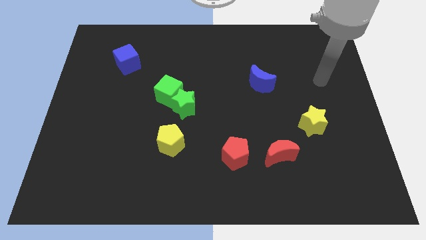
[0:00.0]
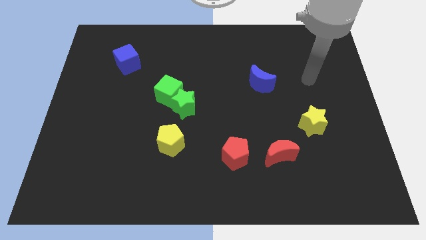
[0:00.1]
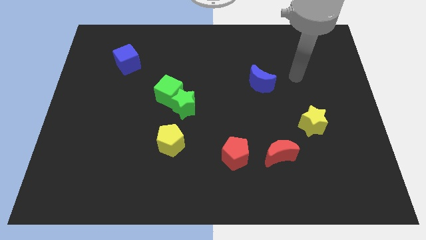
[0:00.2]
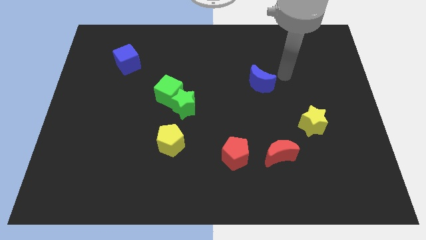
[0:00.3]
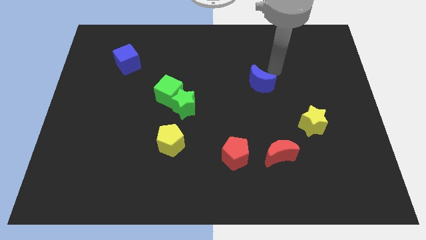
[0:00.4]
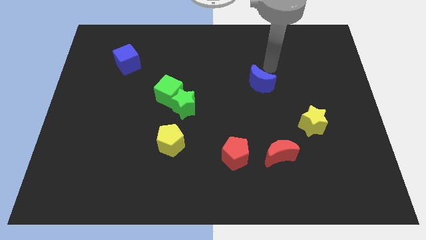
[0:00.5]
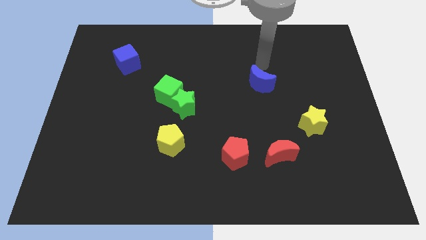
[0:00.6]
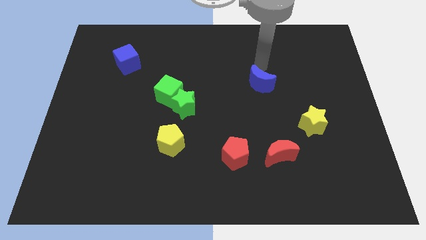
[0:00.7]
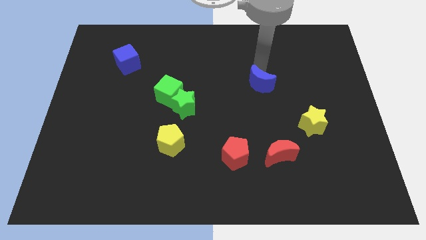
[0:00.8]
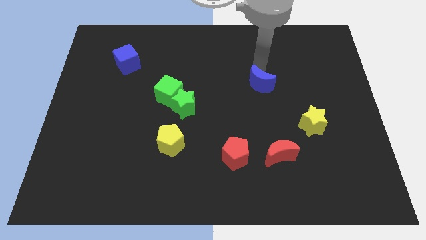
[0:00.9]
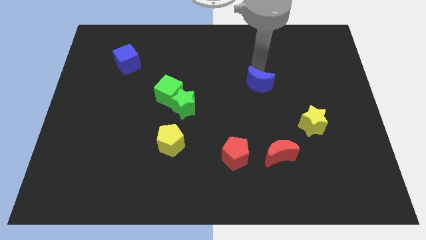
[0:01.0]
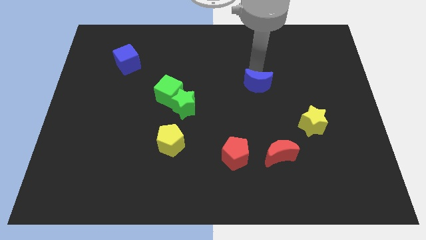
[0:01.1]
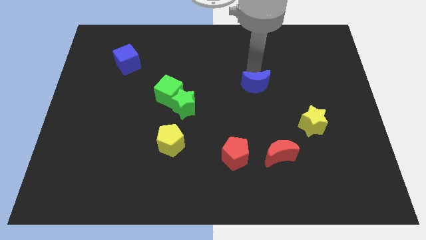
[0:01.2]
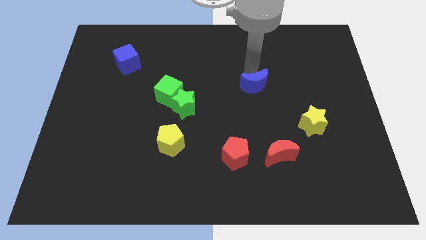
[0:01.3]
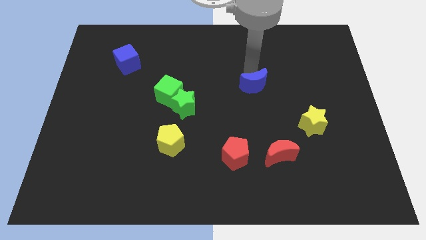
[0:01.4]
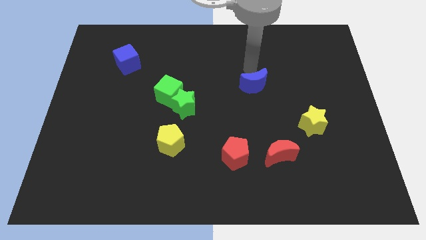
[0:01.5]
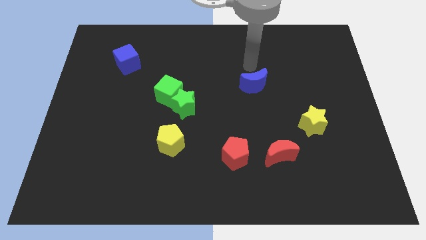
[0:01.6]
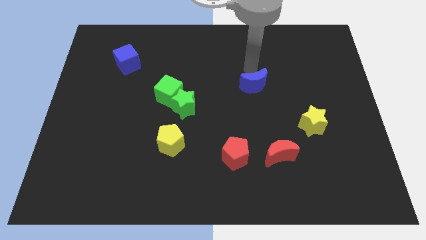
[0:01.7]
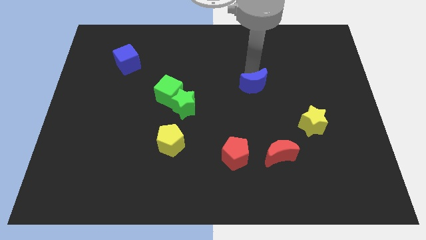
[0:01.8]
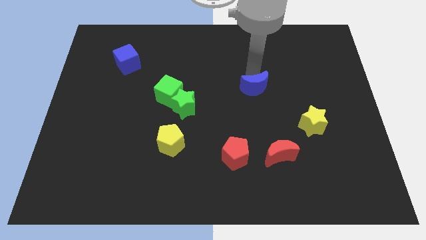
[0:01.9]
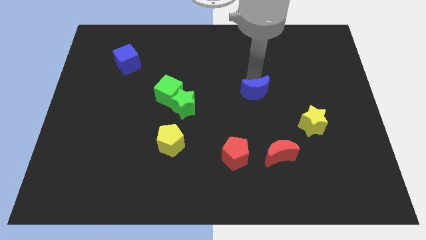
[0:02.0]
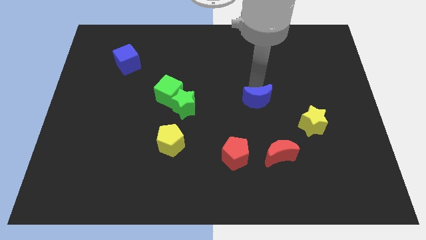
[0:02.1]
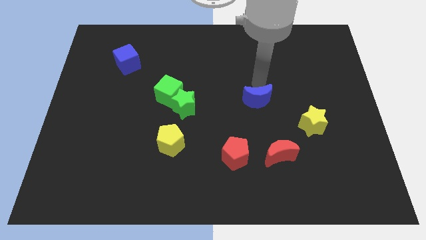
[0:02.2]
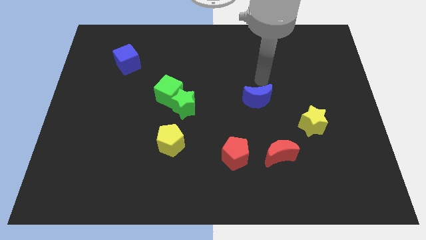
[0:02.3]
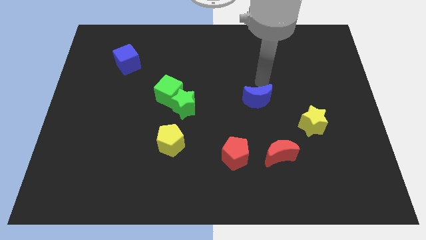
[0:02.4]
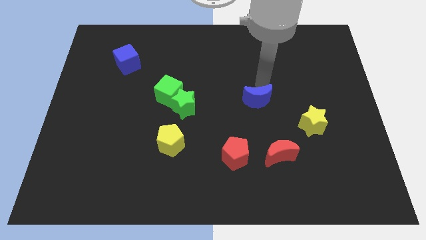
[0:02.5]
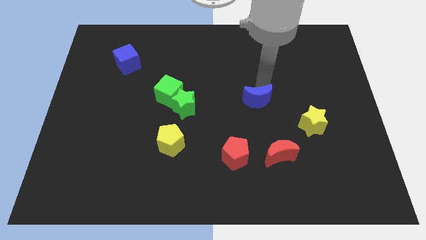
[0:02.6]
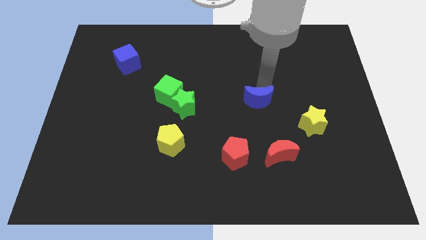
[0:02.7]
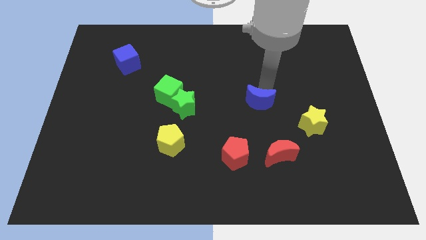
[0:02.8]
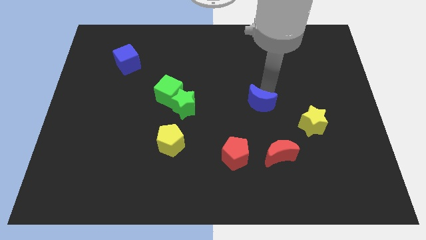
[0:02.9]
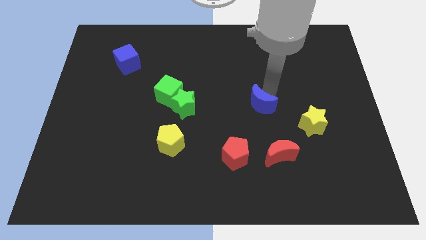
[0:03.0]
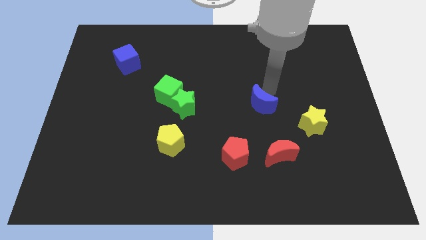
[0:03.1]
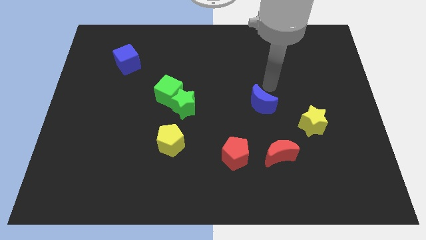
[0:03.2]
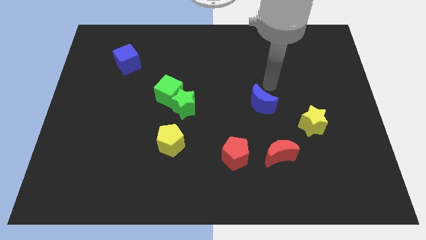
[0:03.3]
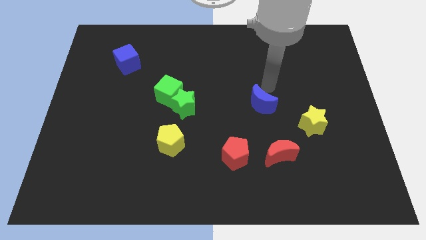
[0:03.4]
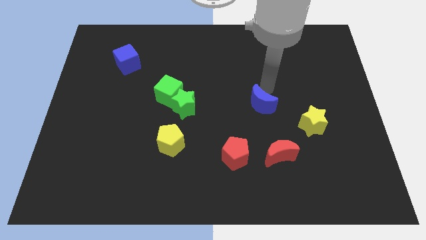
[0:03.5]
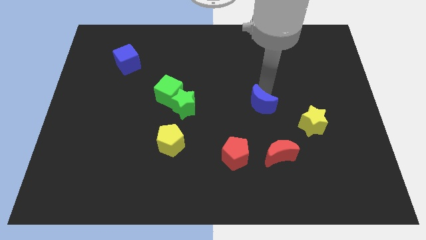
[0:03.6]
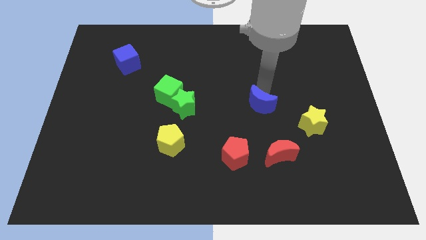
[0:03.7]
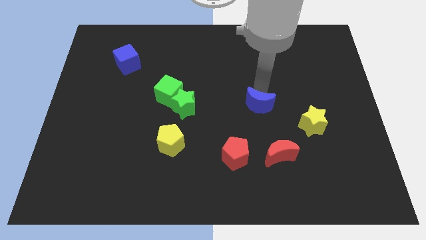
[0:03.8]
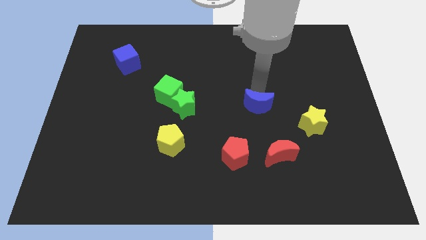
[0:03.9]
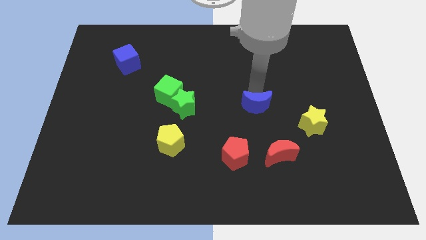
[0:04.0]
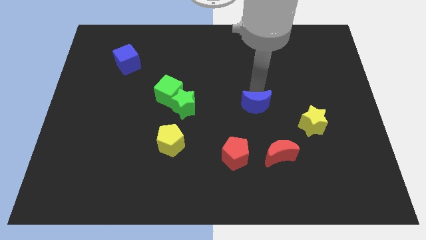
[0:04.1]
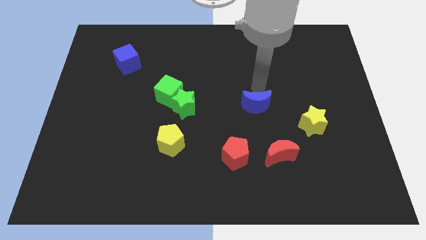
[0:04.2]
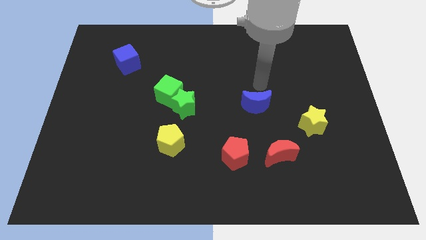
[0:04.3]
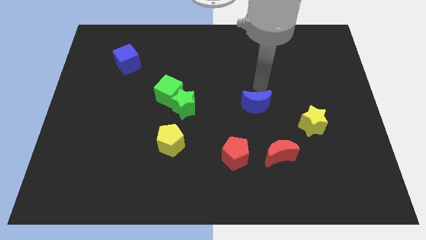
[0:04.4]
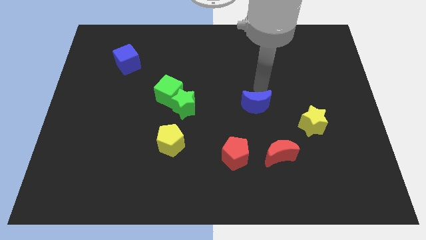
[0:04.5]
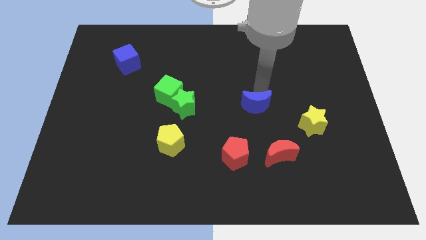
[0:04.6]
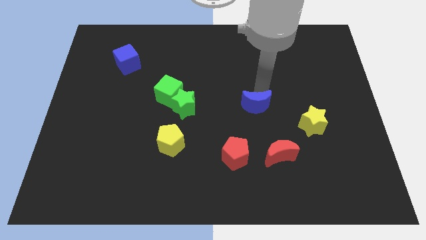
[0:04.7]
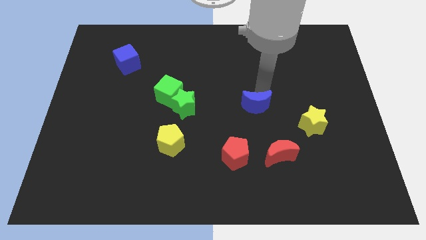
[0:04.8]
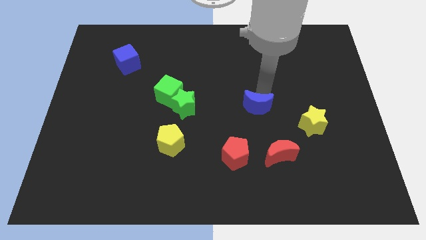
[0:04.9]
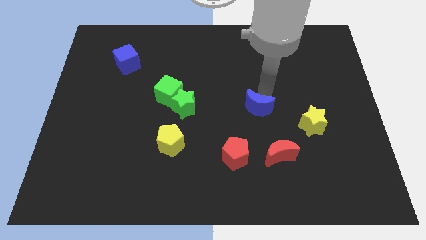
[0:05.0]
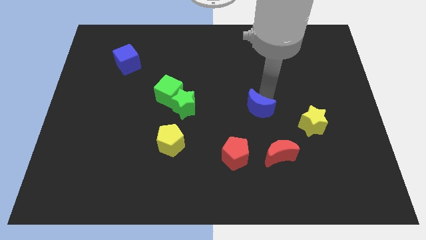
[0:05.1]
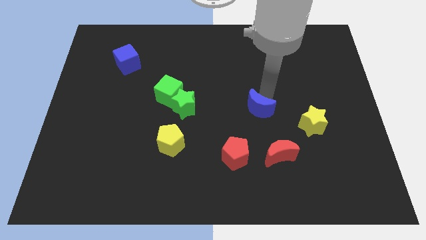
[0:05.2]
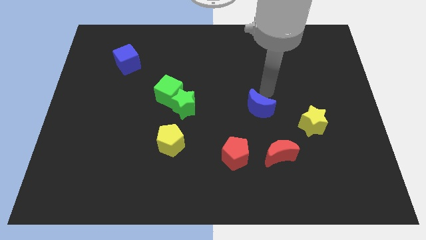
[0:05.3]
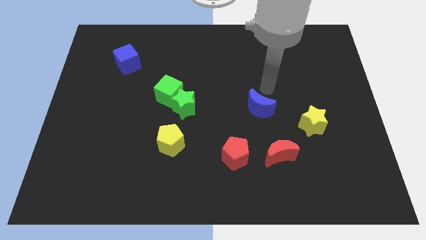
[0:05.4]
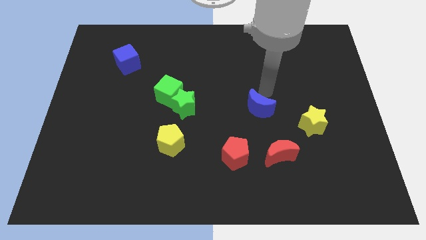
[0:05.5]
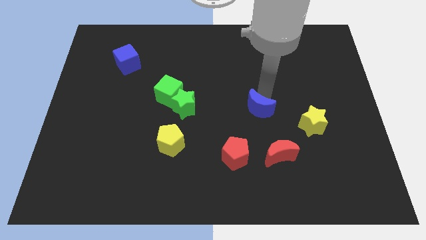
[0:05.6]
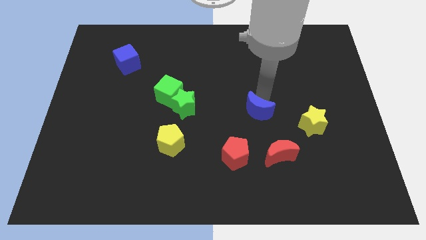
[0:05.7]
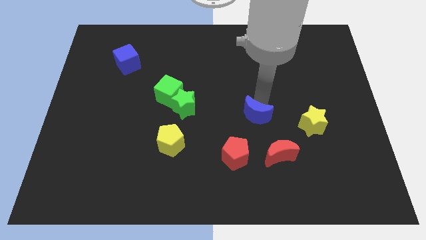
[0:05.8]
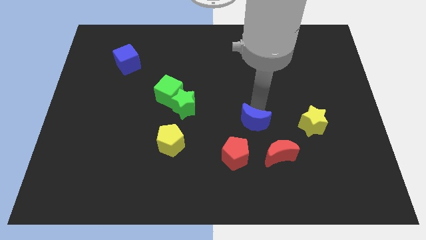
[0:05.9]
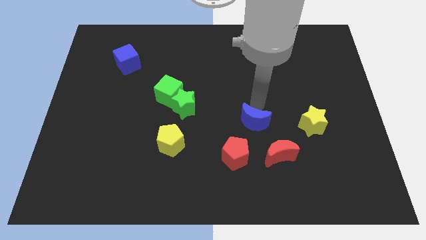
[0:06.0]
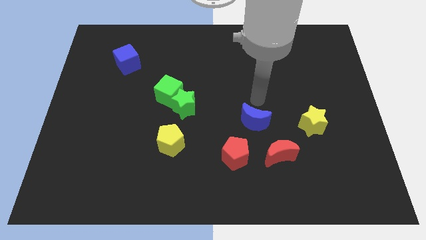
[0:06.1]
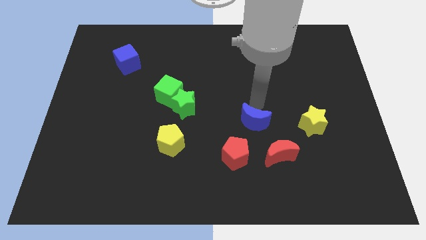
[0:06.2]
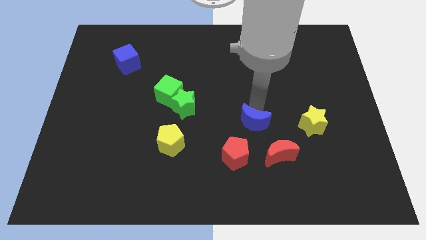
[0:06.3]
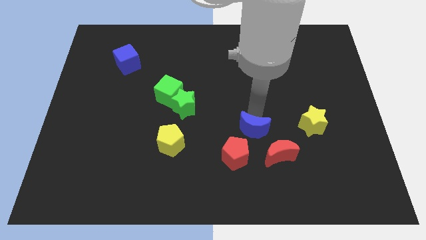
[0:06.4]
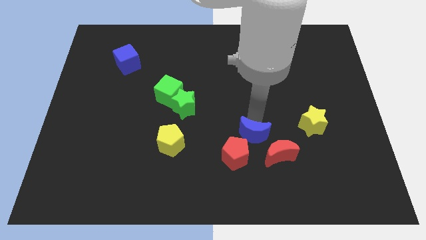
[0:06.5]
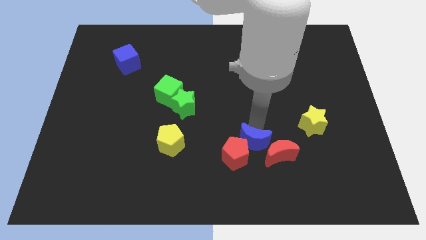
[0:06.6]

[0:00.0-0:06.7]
move the blue moon next to the red pentagon
